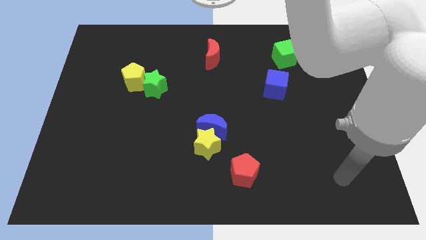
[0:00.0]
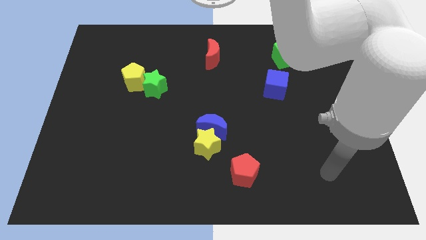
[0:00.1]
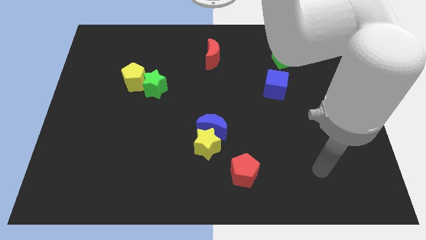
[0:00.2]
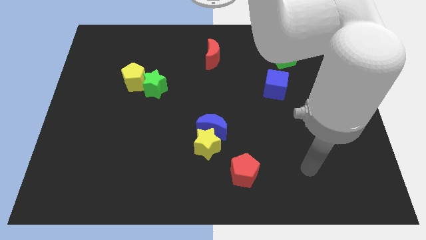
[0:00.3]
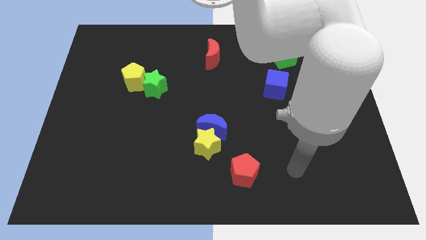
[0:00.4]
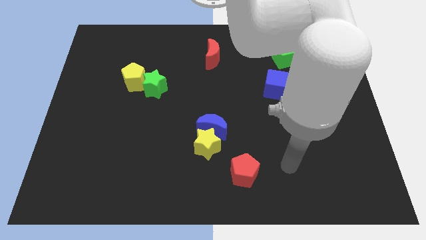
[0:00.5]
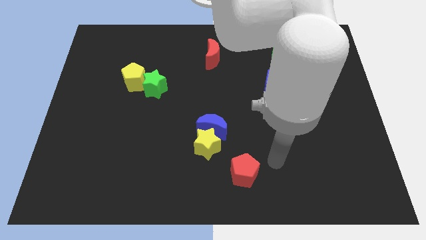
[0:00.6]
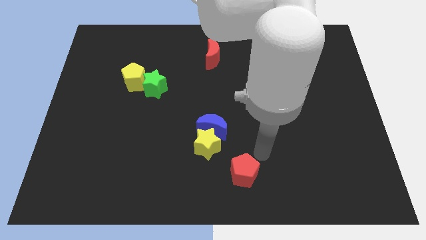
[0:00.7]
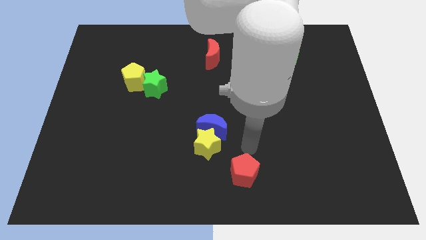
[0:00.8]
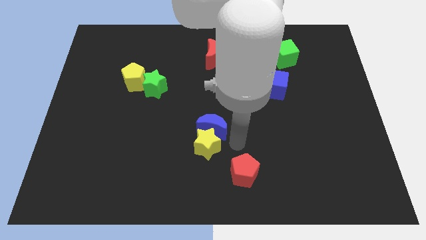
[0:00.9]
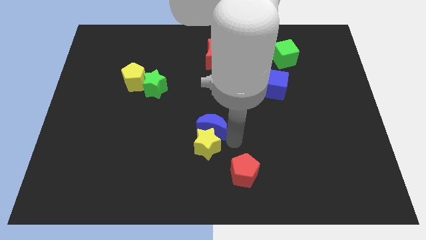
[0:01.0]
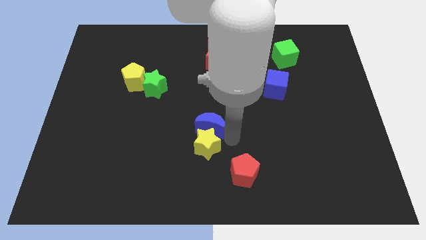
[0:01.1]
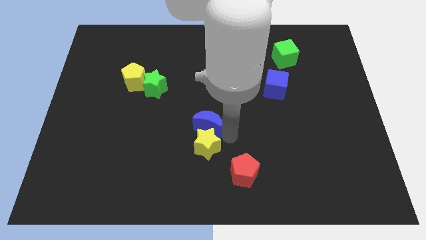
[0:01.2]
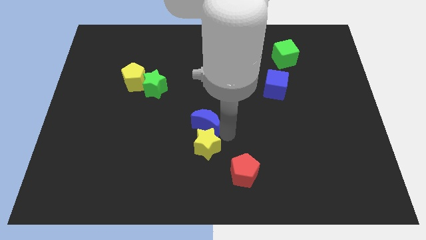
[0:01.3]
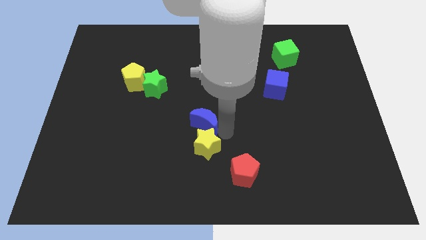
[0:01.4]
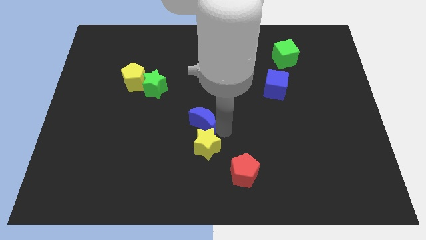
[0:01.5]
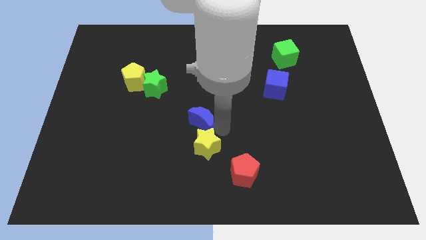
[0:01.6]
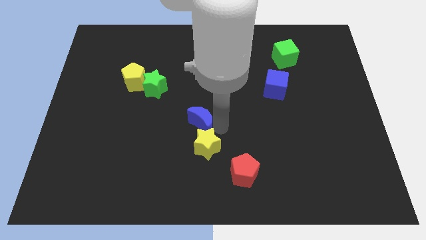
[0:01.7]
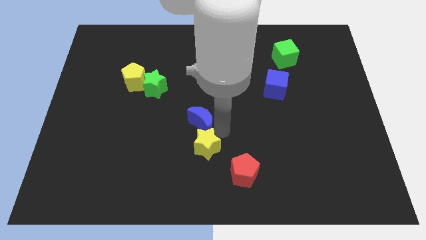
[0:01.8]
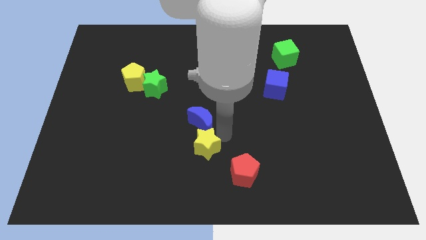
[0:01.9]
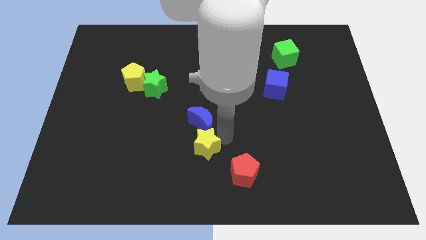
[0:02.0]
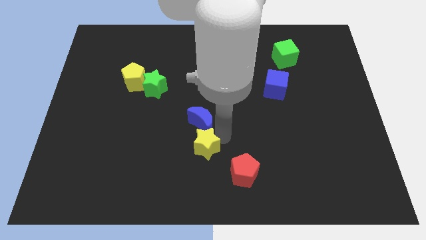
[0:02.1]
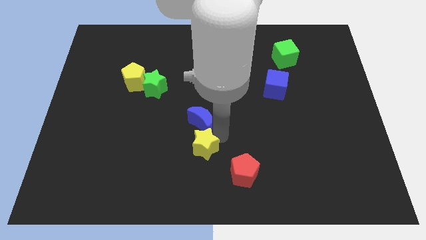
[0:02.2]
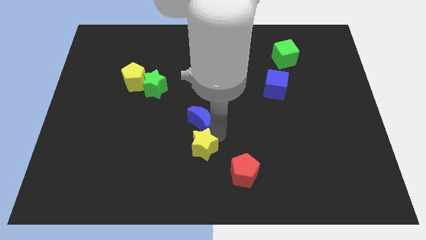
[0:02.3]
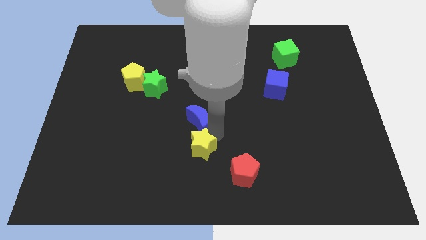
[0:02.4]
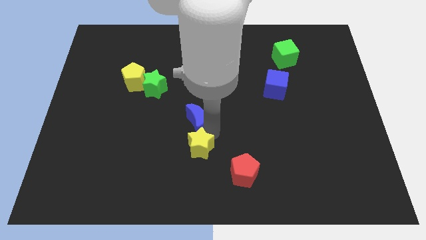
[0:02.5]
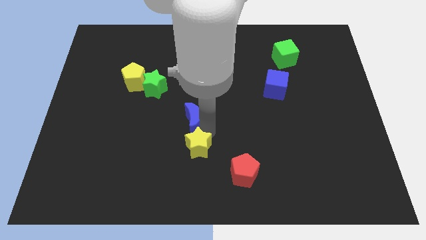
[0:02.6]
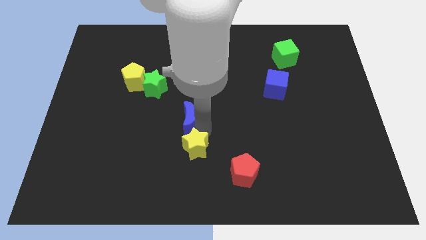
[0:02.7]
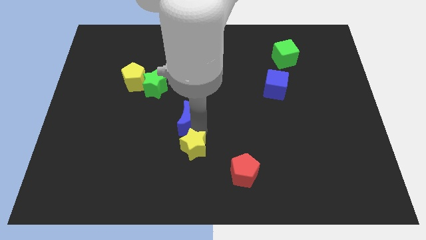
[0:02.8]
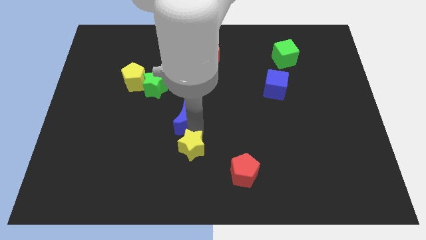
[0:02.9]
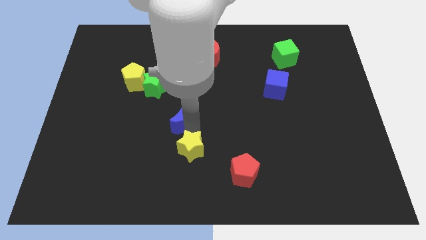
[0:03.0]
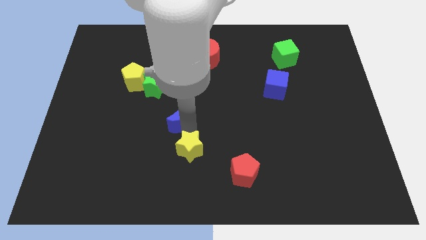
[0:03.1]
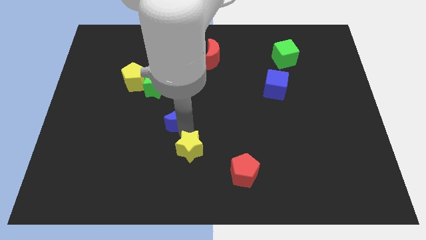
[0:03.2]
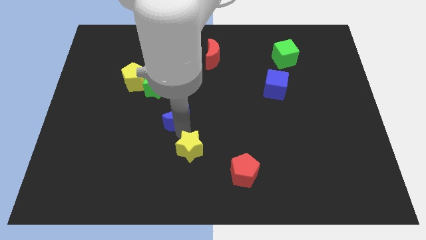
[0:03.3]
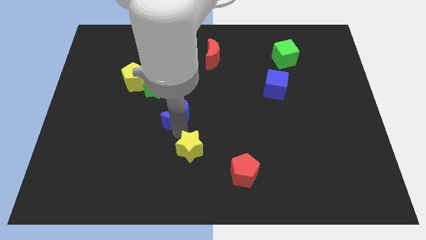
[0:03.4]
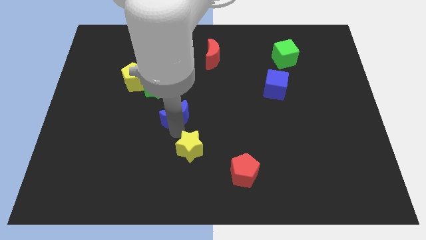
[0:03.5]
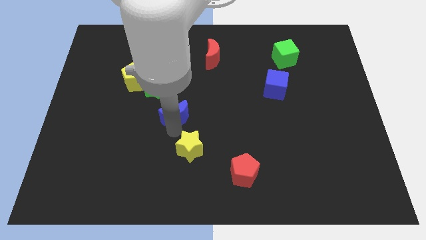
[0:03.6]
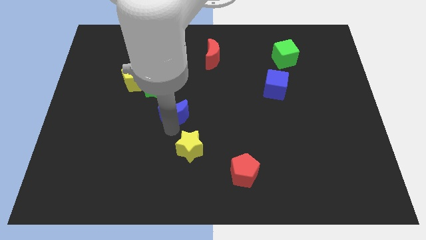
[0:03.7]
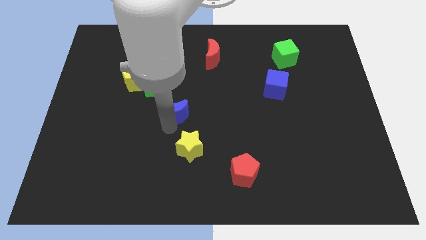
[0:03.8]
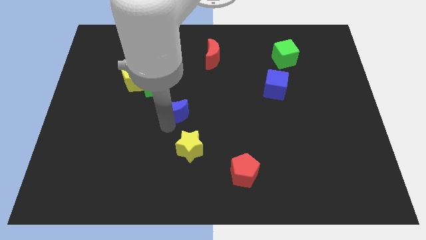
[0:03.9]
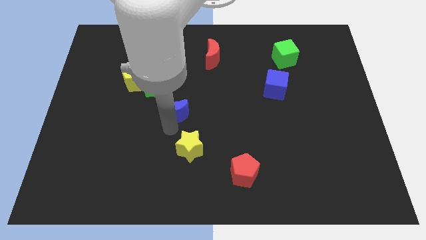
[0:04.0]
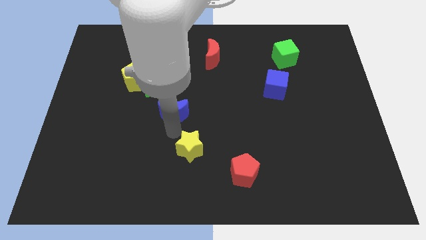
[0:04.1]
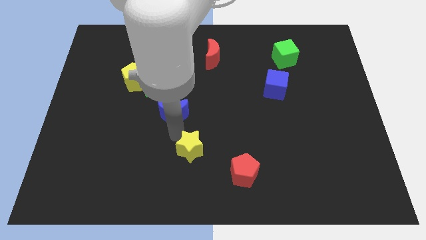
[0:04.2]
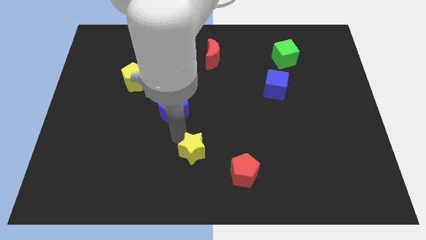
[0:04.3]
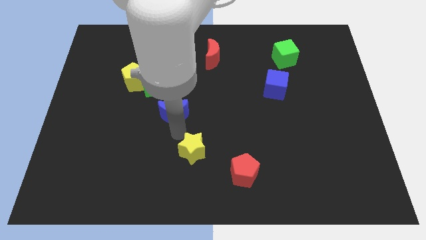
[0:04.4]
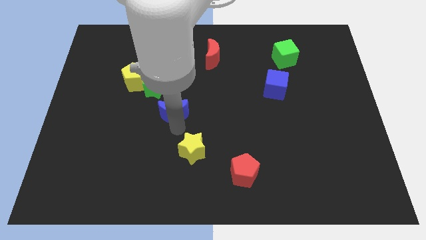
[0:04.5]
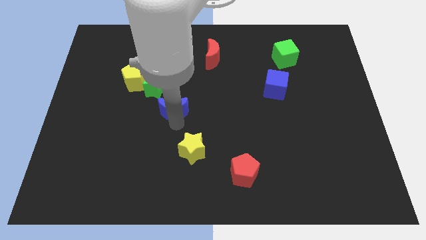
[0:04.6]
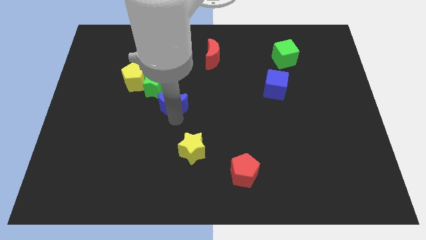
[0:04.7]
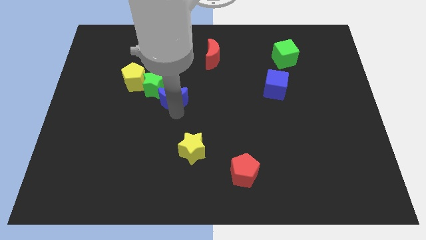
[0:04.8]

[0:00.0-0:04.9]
push the blue moon close to the green star

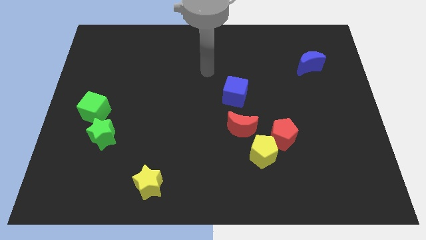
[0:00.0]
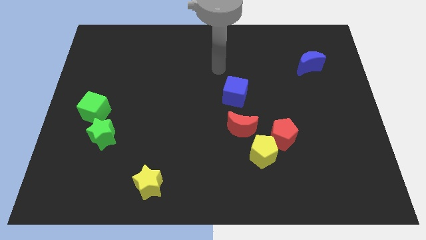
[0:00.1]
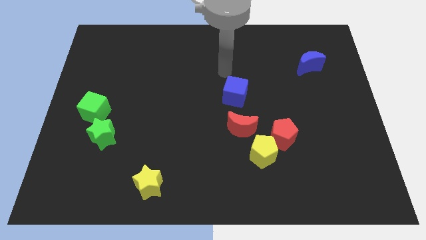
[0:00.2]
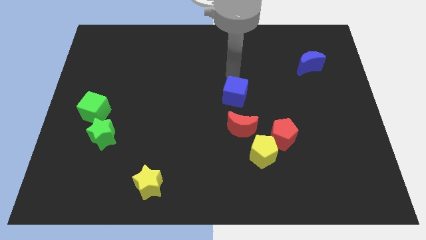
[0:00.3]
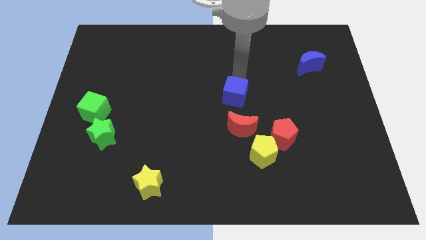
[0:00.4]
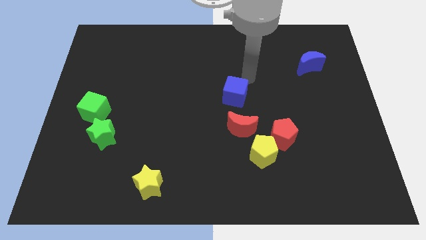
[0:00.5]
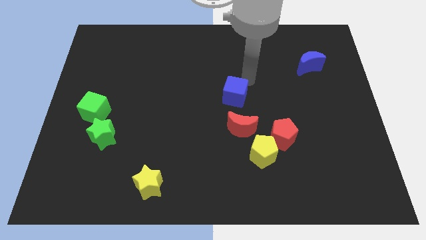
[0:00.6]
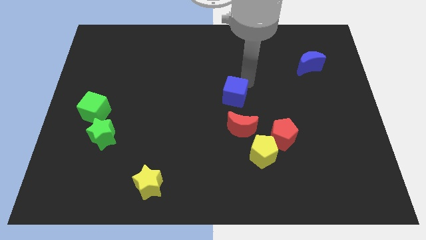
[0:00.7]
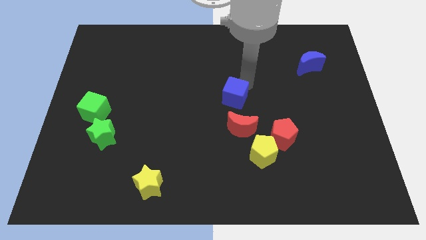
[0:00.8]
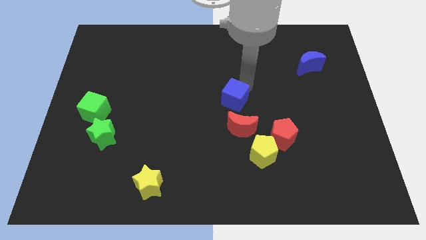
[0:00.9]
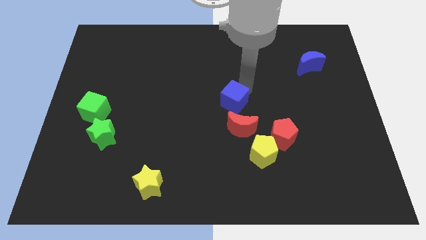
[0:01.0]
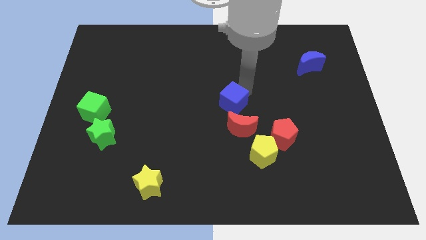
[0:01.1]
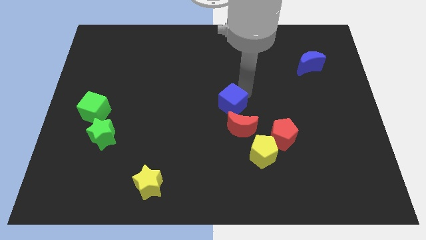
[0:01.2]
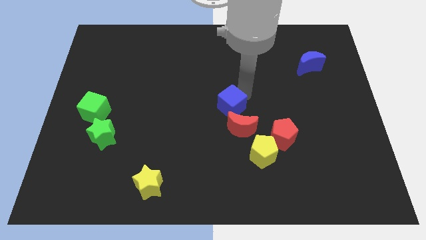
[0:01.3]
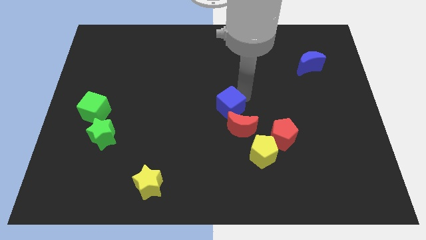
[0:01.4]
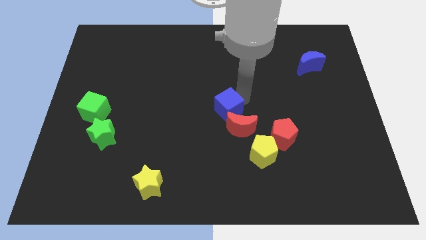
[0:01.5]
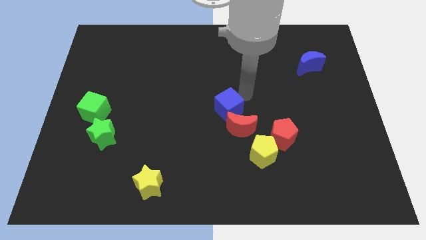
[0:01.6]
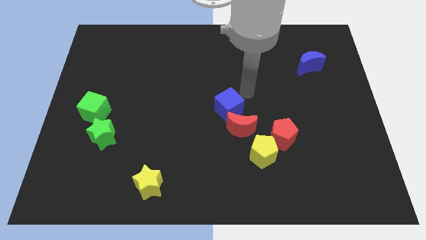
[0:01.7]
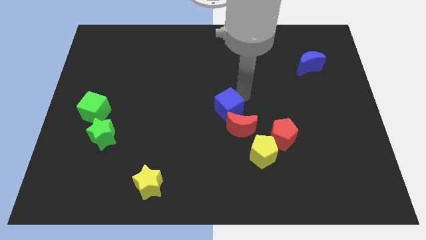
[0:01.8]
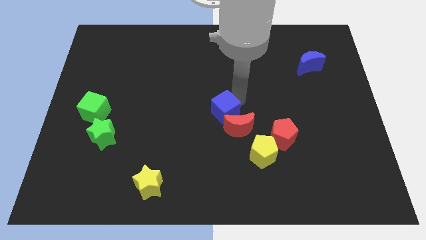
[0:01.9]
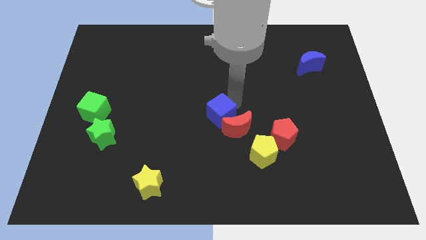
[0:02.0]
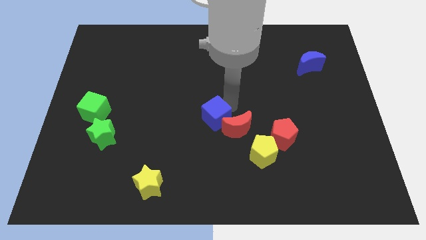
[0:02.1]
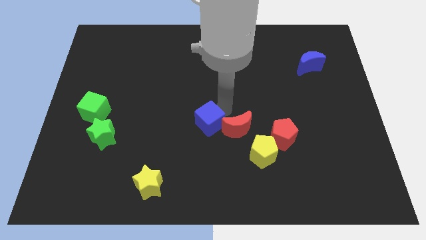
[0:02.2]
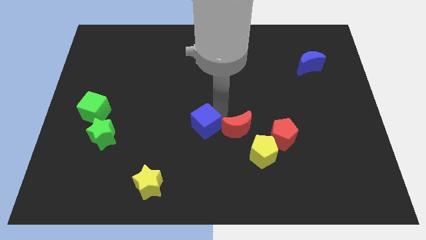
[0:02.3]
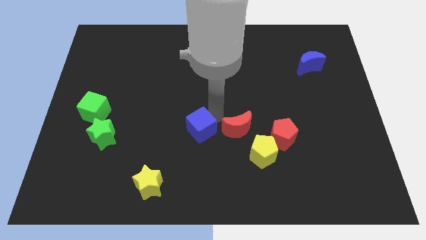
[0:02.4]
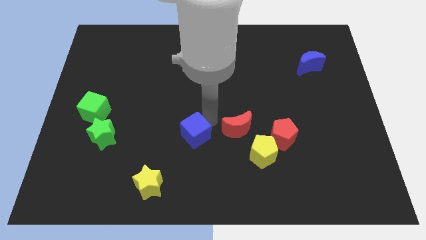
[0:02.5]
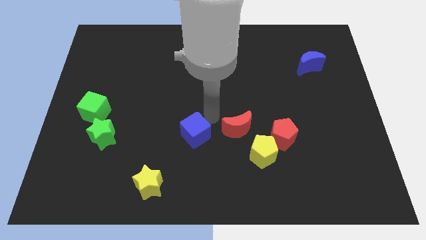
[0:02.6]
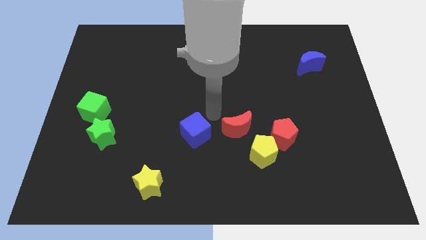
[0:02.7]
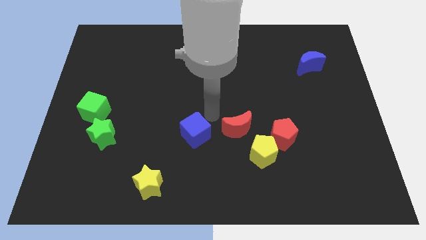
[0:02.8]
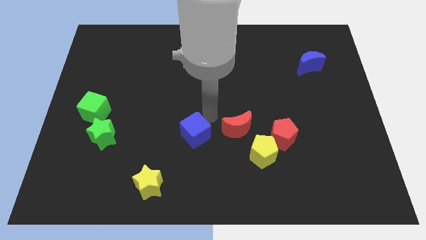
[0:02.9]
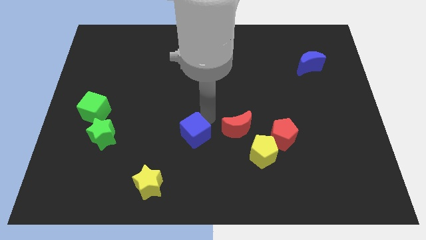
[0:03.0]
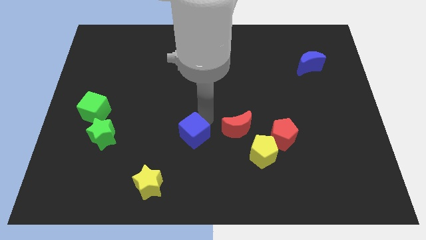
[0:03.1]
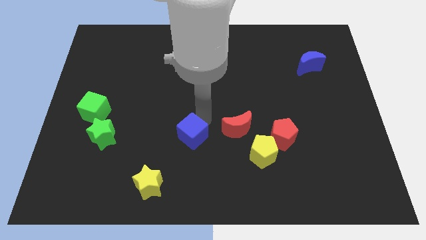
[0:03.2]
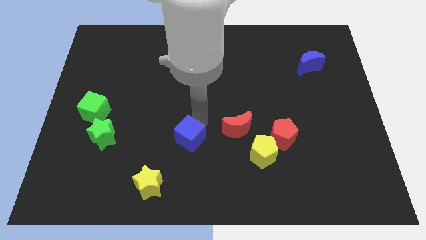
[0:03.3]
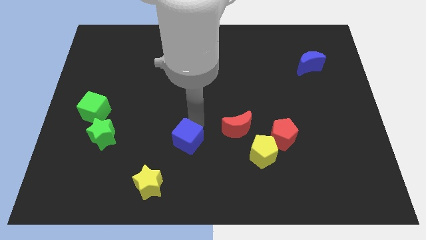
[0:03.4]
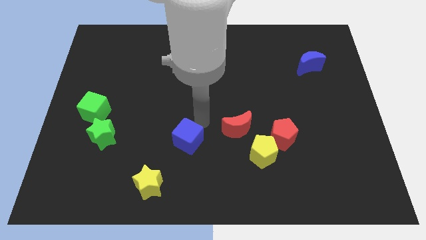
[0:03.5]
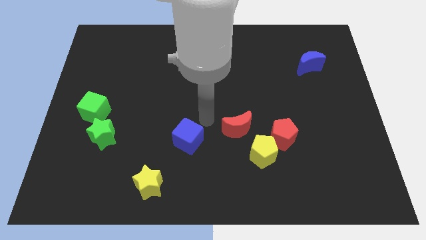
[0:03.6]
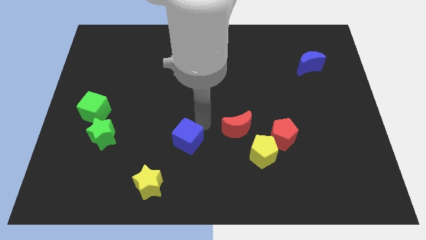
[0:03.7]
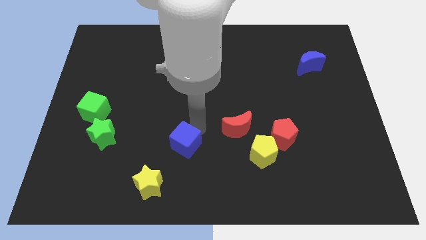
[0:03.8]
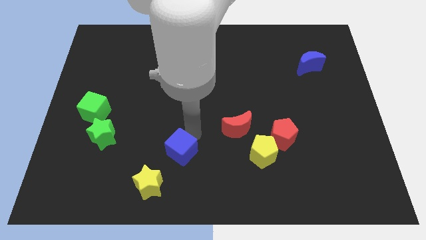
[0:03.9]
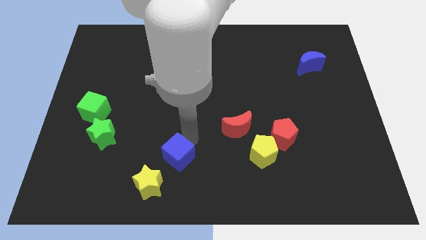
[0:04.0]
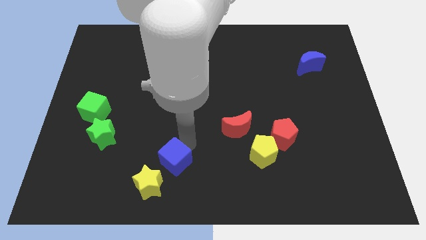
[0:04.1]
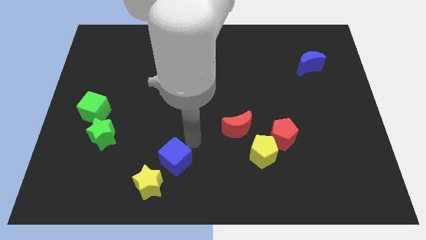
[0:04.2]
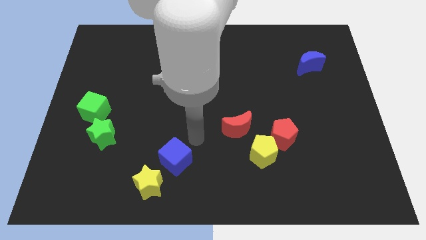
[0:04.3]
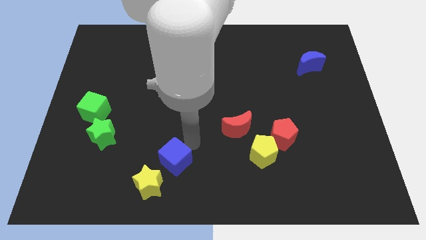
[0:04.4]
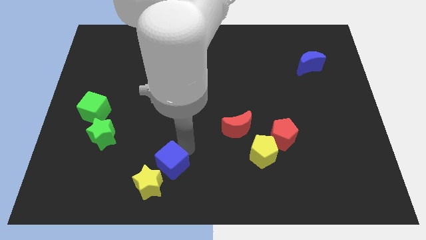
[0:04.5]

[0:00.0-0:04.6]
slide the blue cube towards the yellow star
